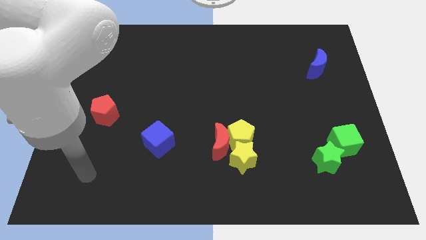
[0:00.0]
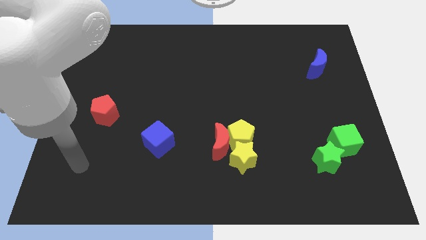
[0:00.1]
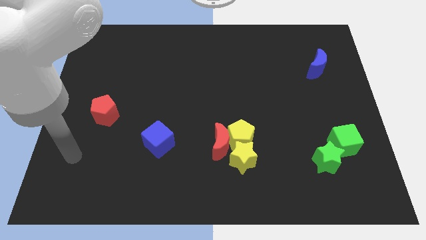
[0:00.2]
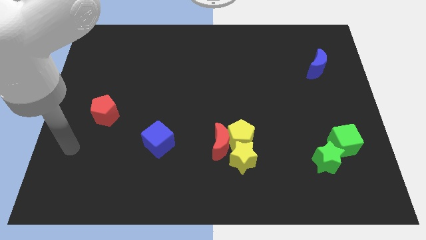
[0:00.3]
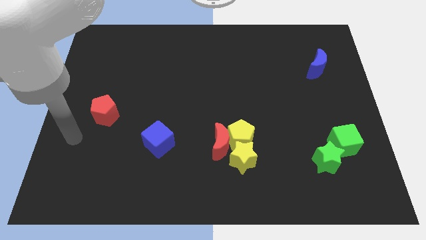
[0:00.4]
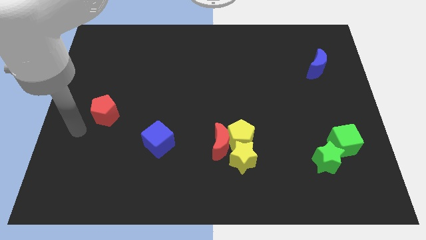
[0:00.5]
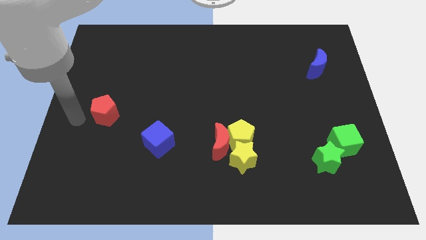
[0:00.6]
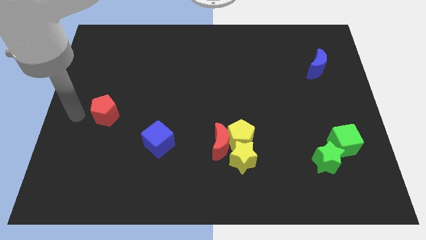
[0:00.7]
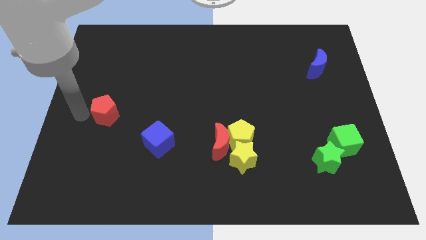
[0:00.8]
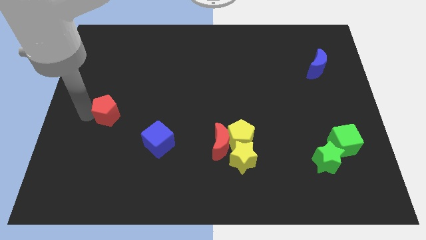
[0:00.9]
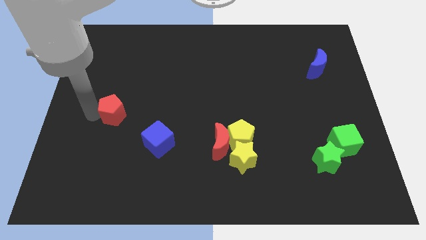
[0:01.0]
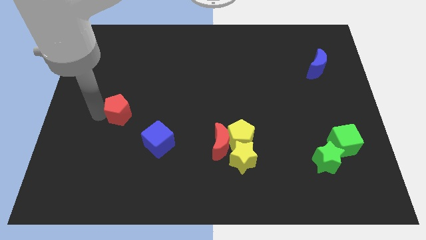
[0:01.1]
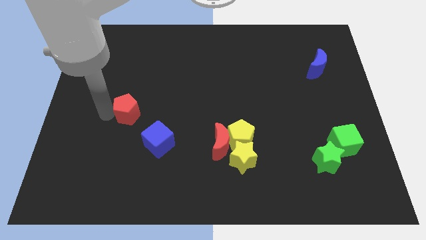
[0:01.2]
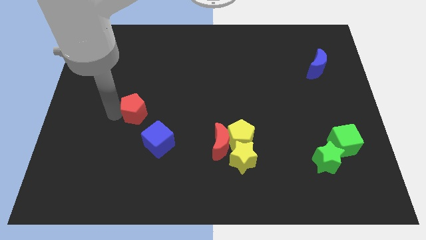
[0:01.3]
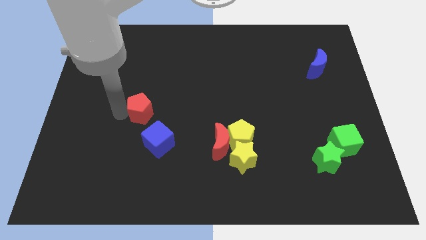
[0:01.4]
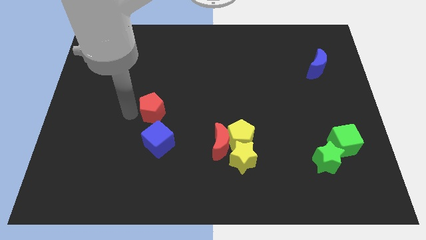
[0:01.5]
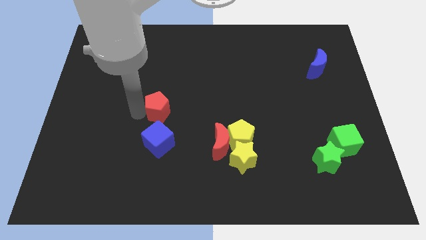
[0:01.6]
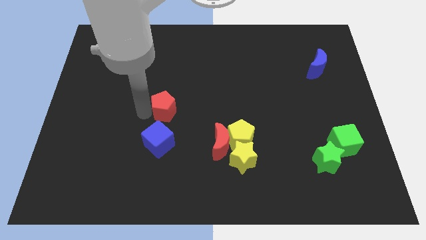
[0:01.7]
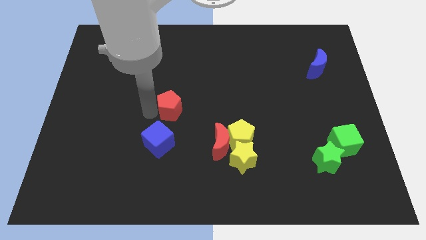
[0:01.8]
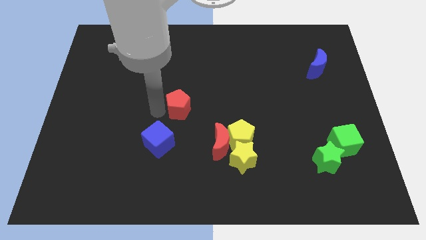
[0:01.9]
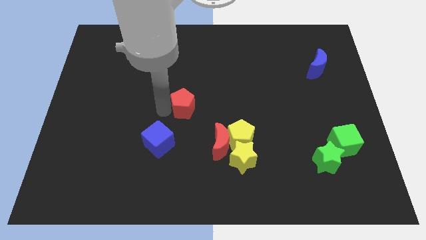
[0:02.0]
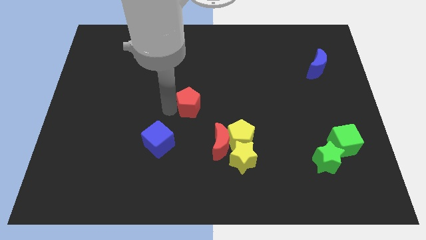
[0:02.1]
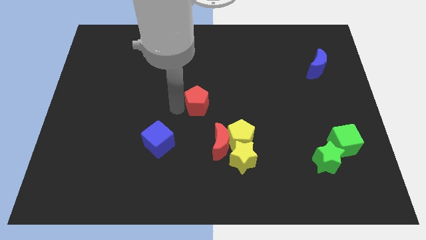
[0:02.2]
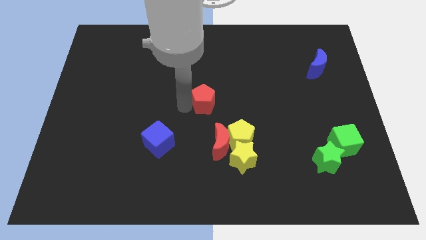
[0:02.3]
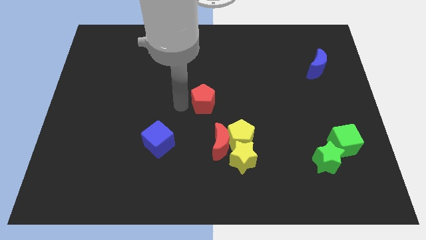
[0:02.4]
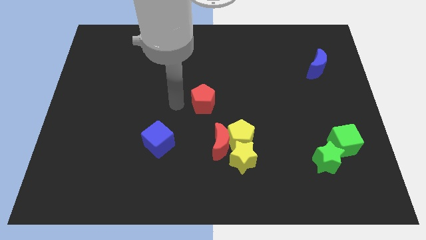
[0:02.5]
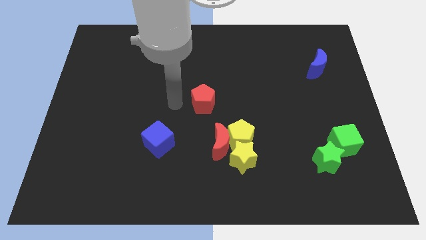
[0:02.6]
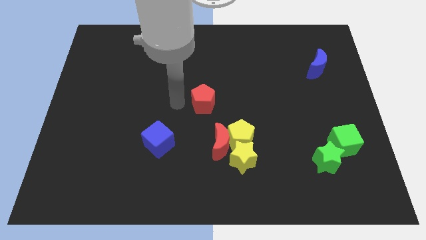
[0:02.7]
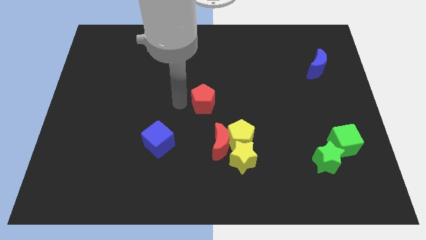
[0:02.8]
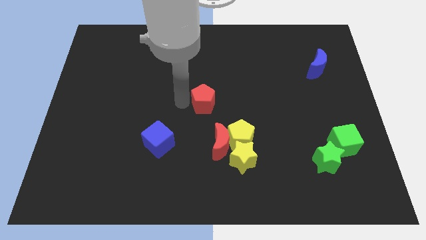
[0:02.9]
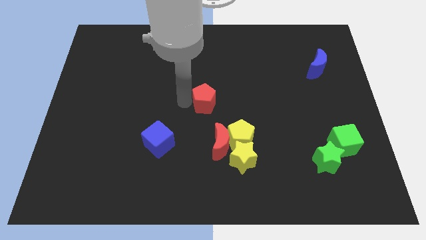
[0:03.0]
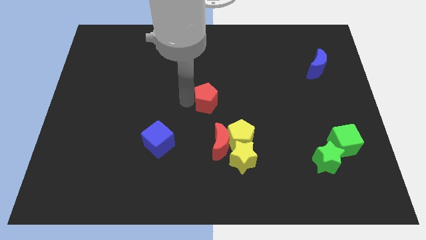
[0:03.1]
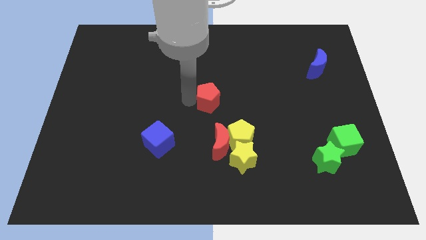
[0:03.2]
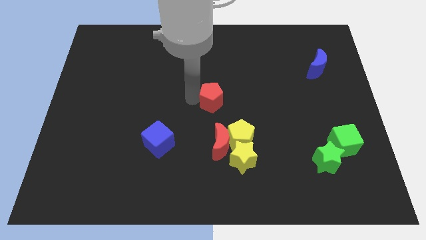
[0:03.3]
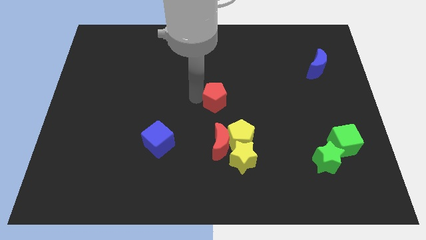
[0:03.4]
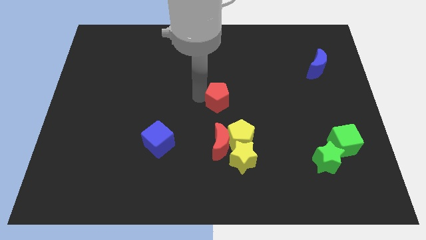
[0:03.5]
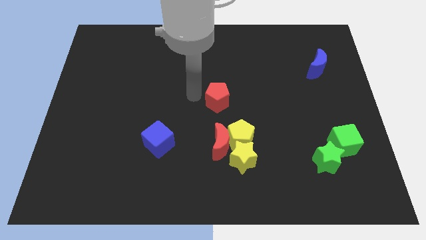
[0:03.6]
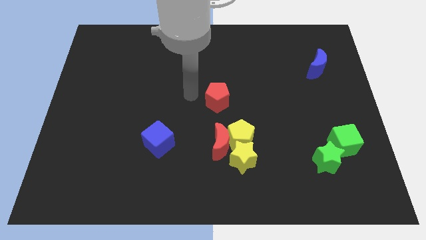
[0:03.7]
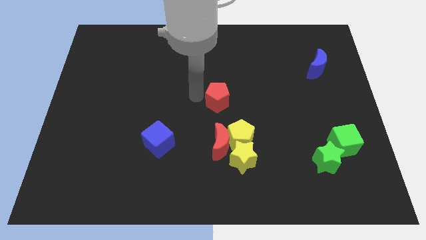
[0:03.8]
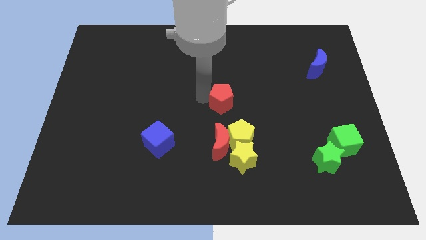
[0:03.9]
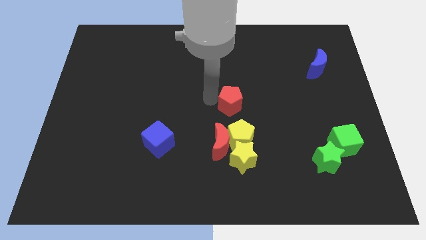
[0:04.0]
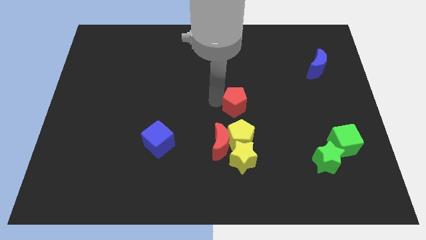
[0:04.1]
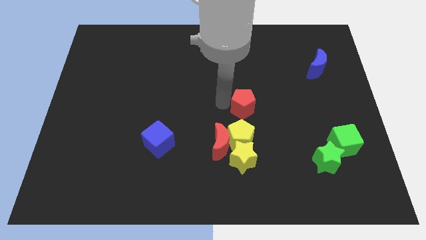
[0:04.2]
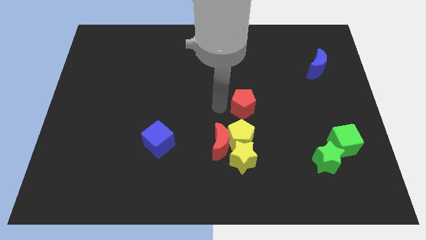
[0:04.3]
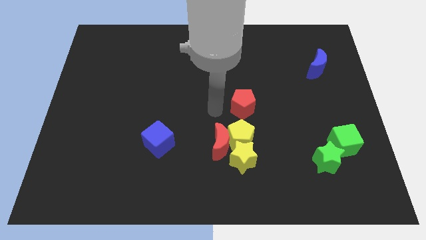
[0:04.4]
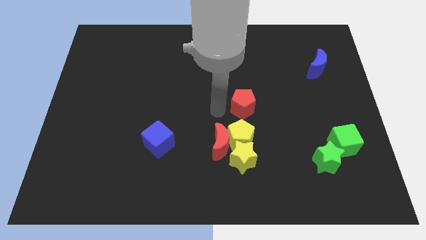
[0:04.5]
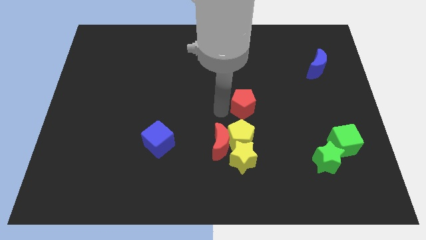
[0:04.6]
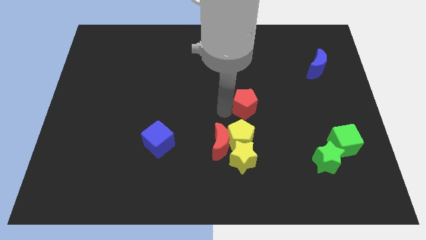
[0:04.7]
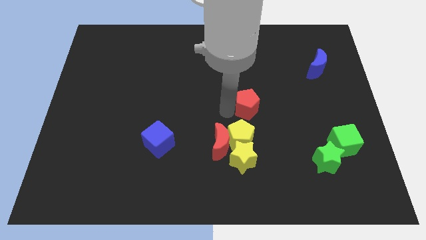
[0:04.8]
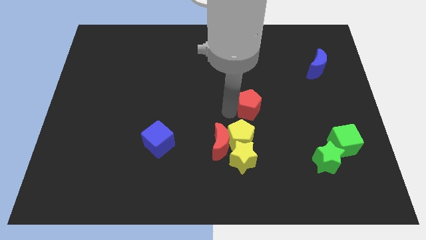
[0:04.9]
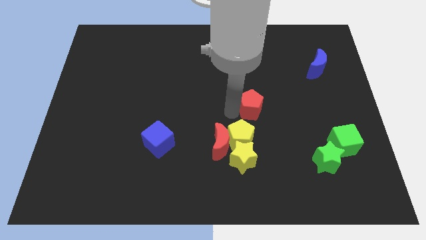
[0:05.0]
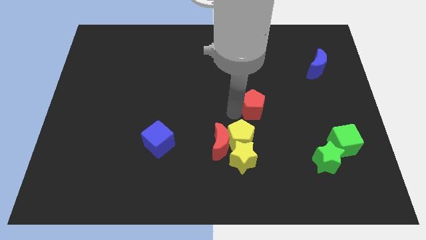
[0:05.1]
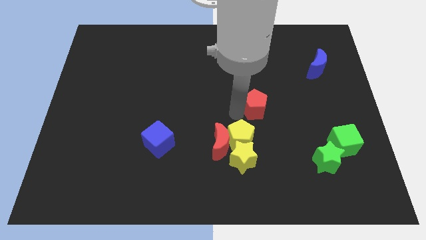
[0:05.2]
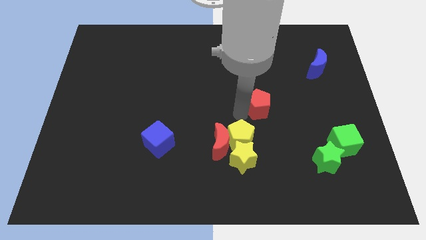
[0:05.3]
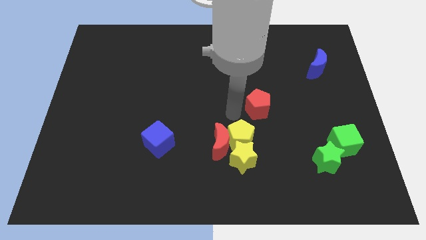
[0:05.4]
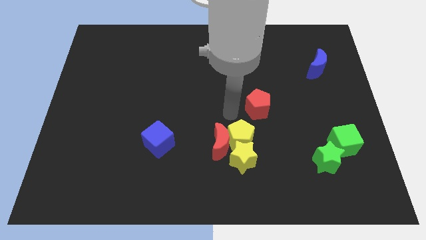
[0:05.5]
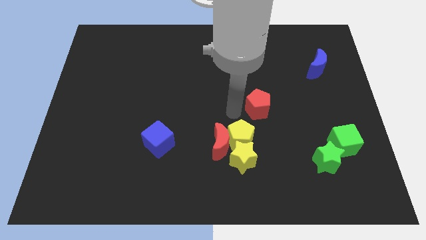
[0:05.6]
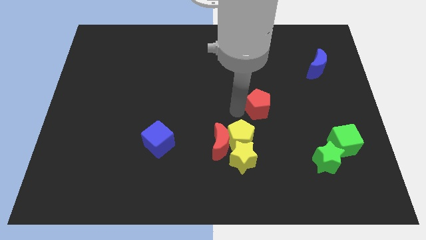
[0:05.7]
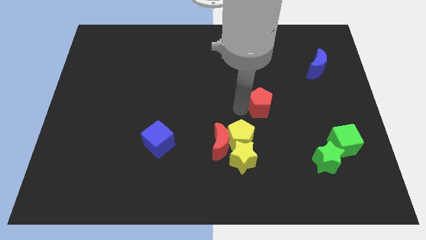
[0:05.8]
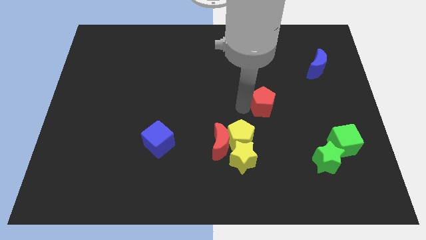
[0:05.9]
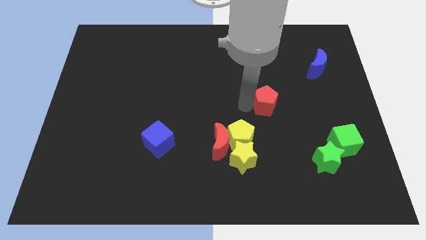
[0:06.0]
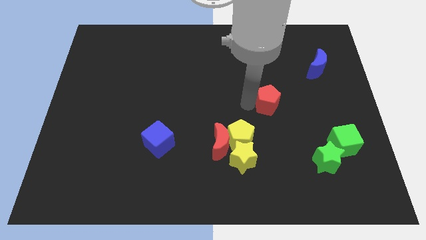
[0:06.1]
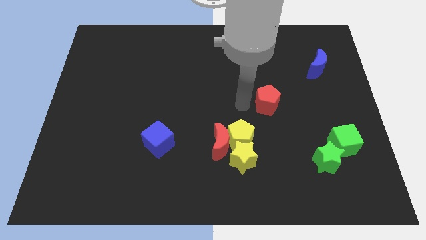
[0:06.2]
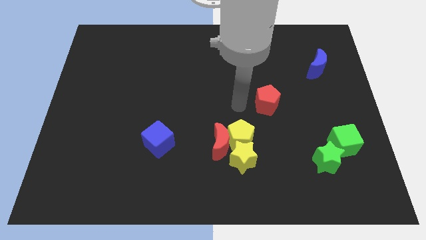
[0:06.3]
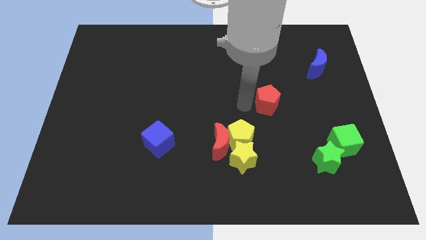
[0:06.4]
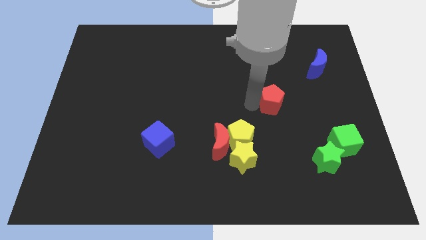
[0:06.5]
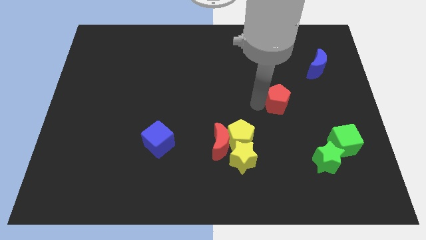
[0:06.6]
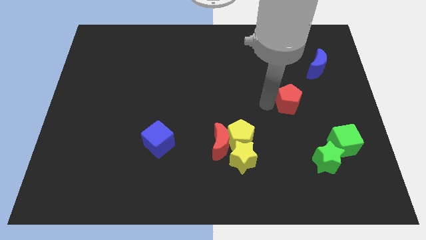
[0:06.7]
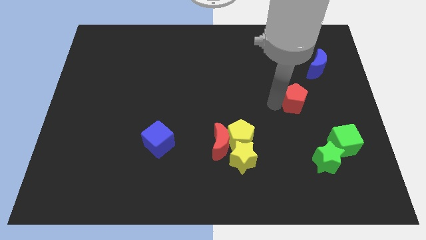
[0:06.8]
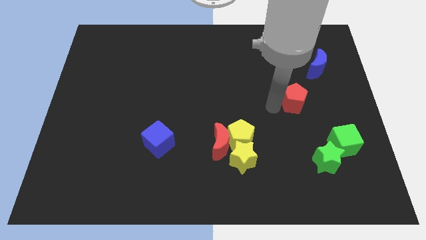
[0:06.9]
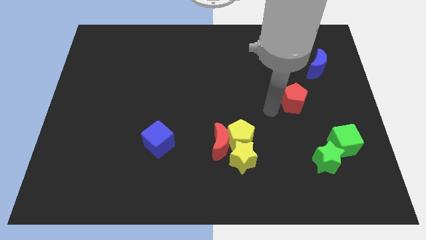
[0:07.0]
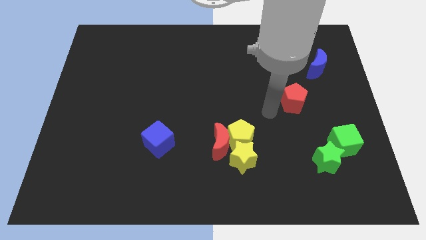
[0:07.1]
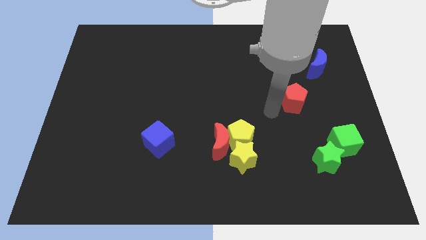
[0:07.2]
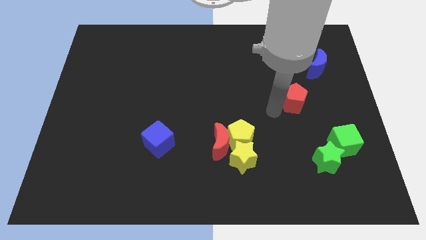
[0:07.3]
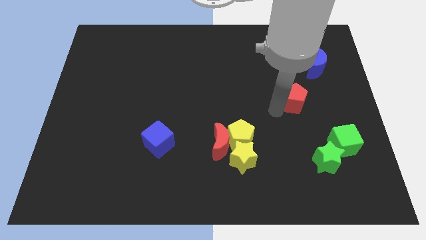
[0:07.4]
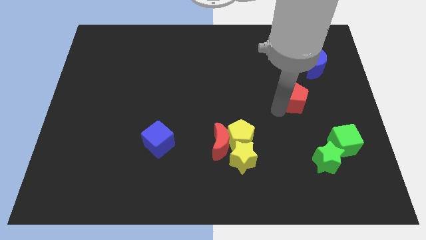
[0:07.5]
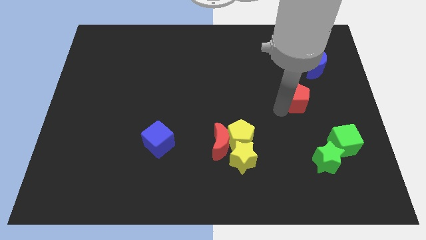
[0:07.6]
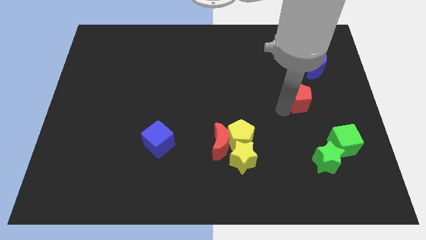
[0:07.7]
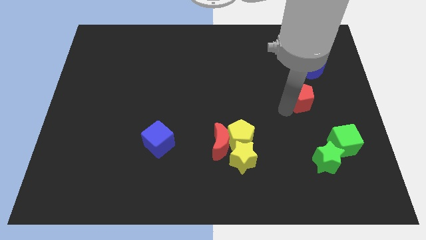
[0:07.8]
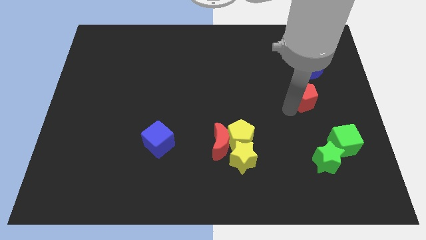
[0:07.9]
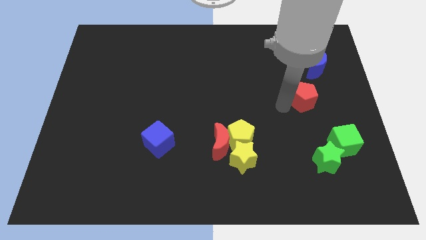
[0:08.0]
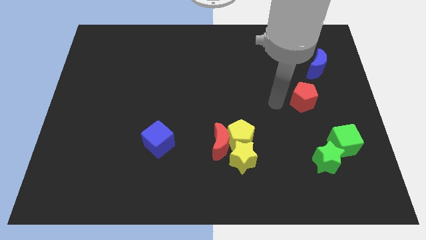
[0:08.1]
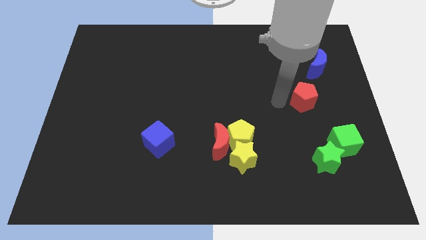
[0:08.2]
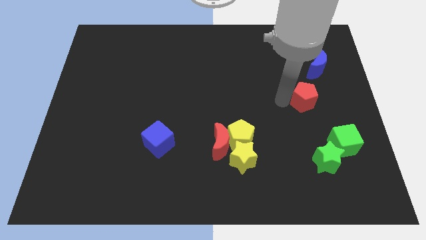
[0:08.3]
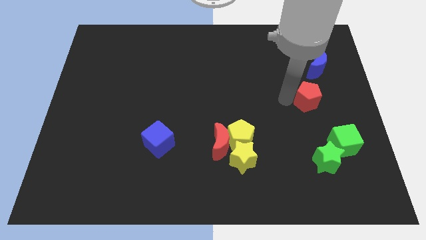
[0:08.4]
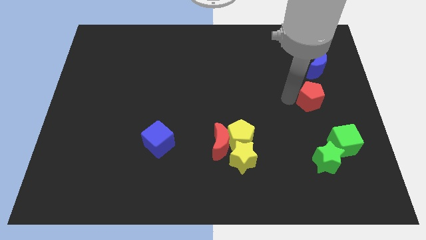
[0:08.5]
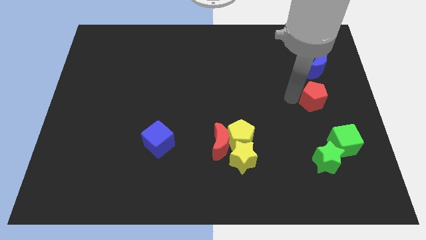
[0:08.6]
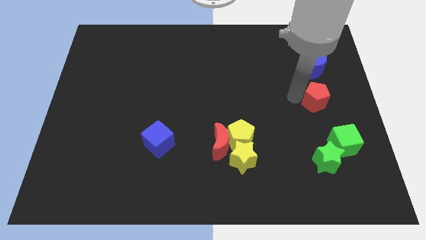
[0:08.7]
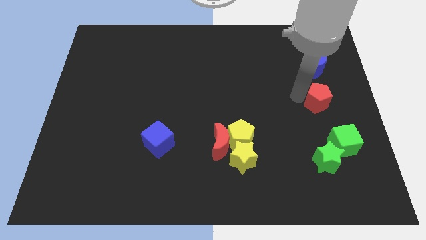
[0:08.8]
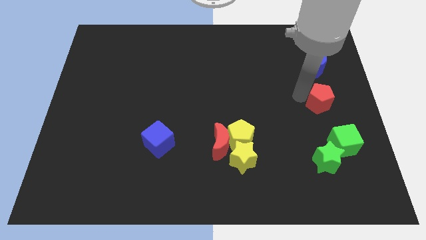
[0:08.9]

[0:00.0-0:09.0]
slide the red pentagon to the right side of the board
